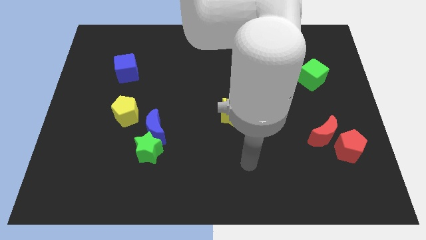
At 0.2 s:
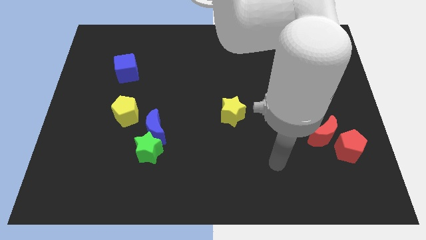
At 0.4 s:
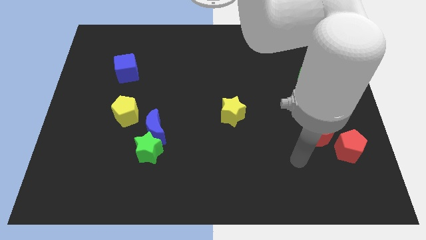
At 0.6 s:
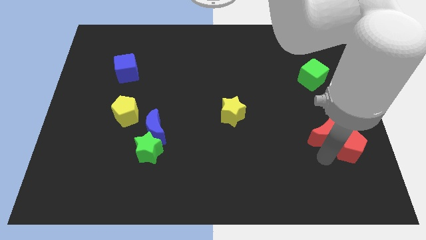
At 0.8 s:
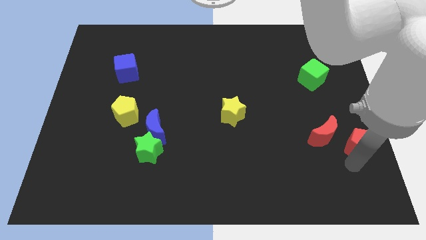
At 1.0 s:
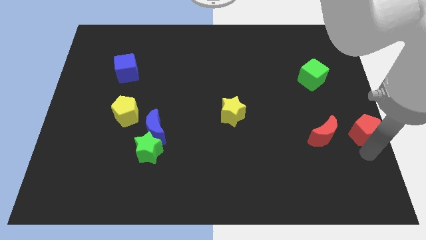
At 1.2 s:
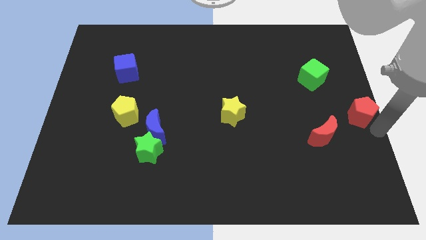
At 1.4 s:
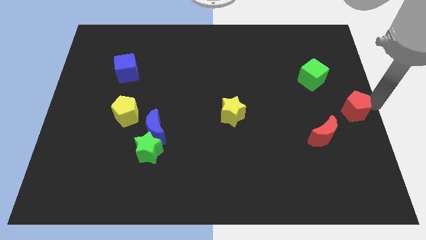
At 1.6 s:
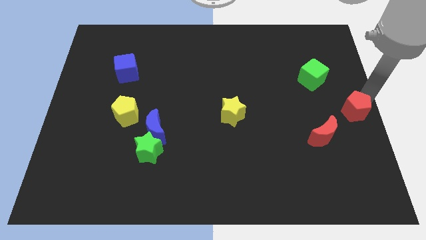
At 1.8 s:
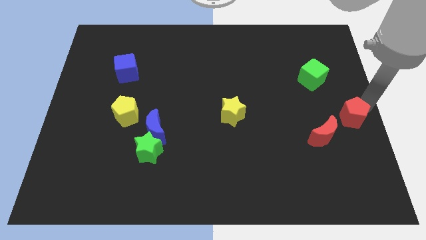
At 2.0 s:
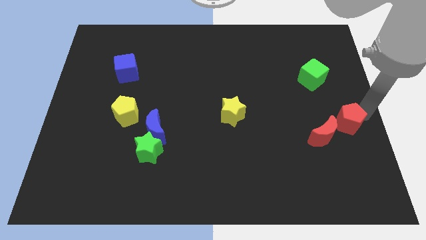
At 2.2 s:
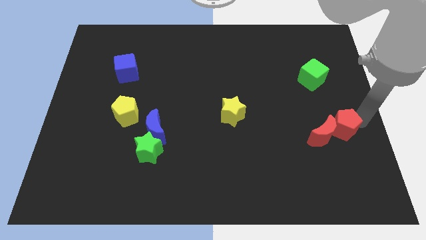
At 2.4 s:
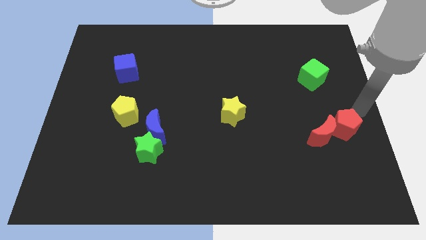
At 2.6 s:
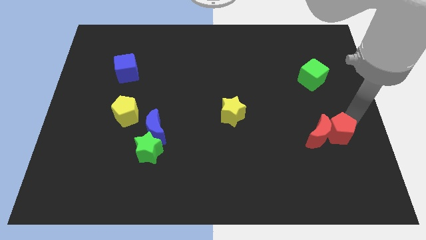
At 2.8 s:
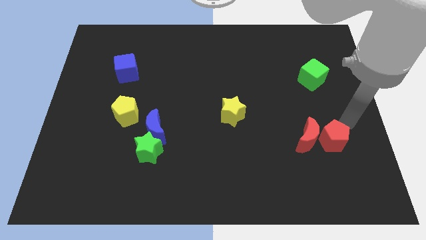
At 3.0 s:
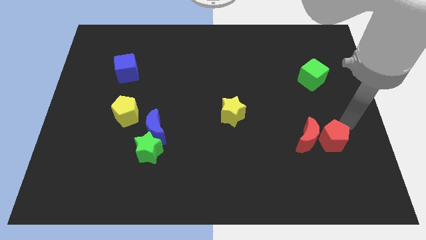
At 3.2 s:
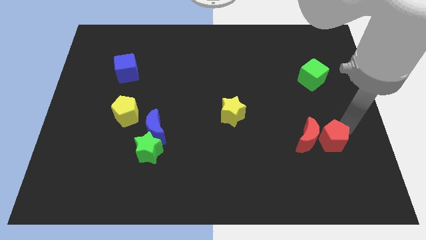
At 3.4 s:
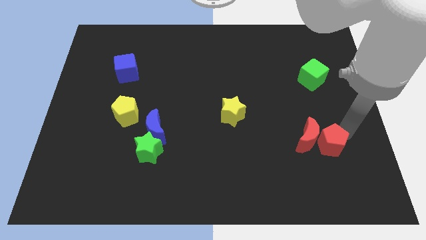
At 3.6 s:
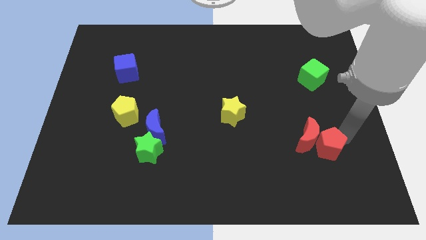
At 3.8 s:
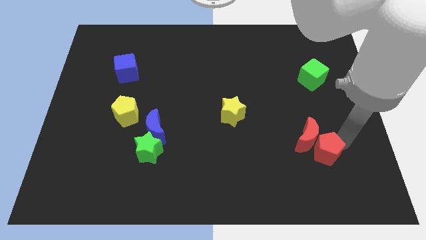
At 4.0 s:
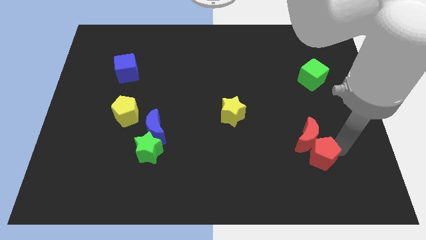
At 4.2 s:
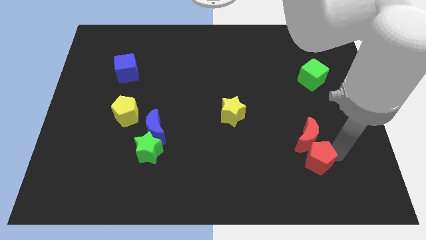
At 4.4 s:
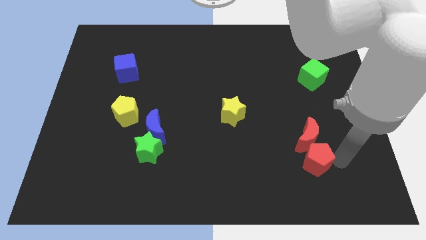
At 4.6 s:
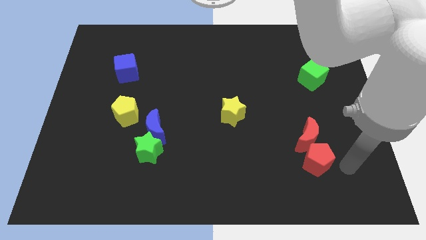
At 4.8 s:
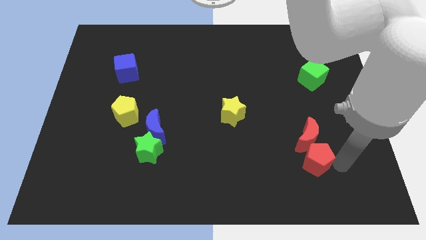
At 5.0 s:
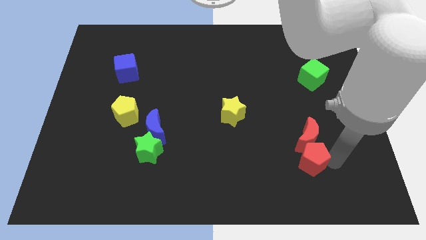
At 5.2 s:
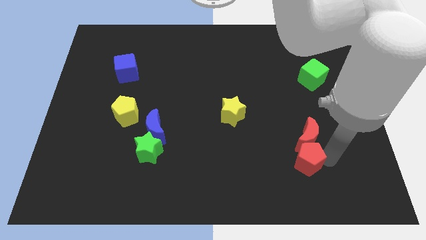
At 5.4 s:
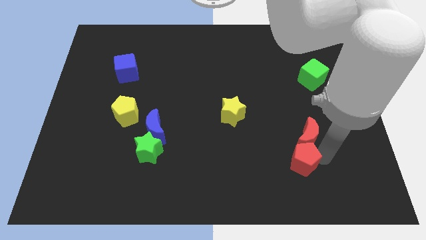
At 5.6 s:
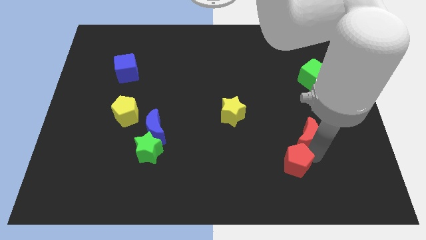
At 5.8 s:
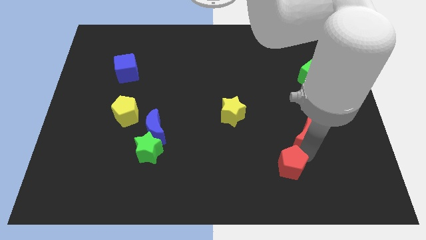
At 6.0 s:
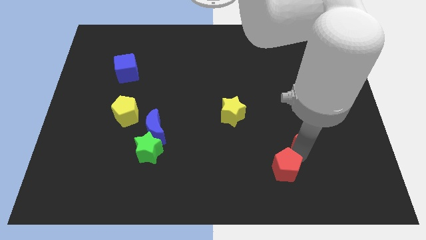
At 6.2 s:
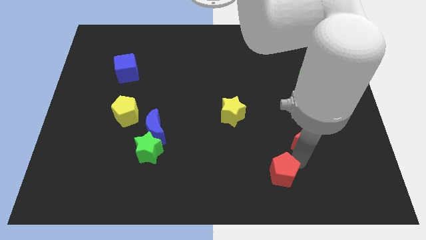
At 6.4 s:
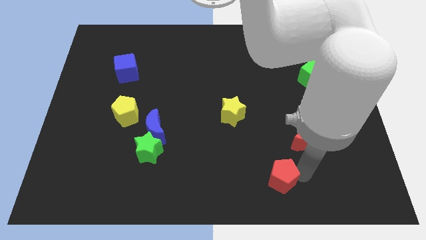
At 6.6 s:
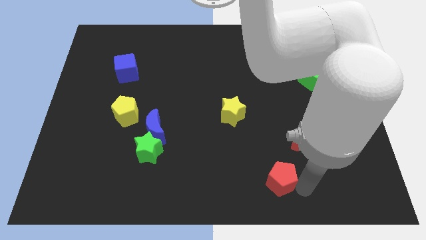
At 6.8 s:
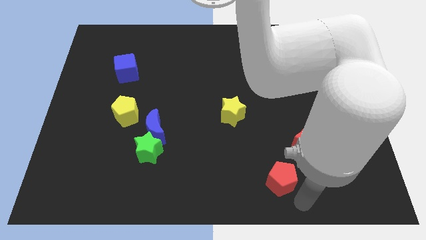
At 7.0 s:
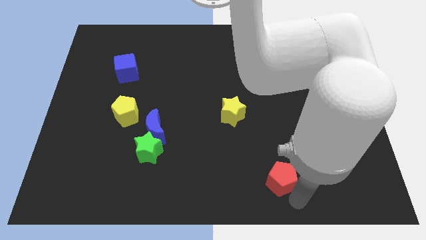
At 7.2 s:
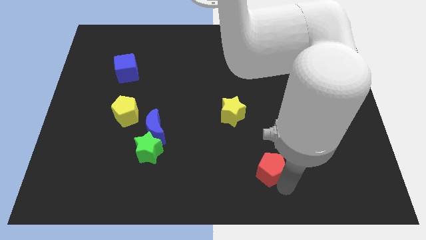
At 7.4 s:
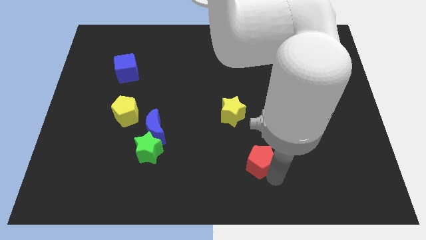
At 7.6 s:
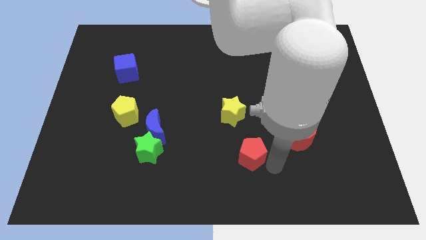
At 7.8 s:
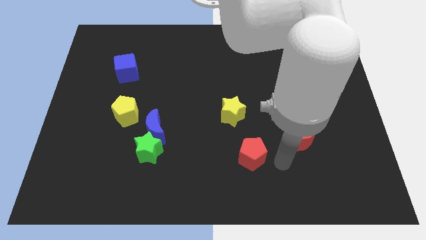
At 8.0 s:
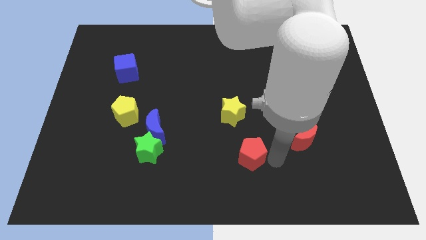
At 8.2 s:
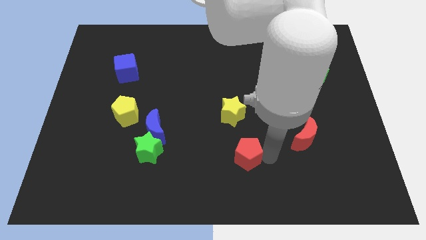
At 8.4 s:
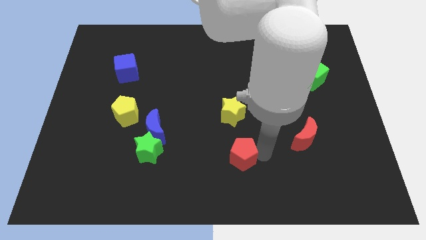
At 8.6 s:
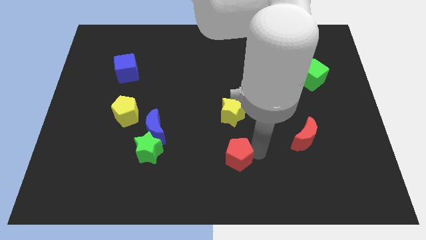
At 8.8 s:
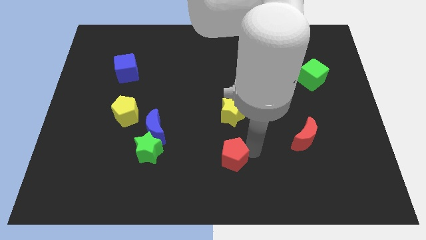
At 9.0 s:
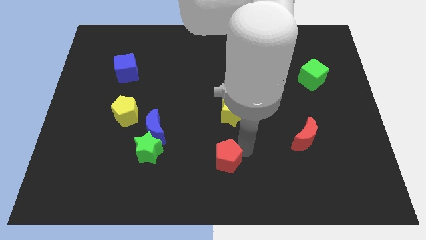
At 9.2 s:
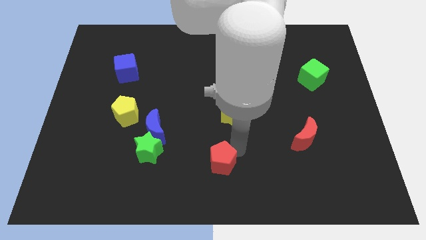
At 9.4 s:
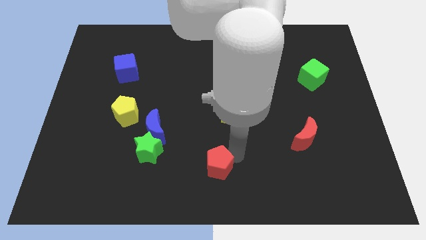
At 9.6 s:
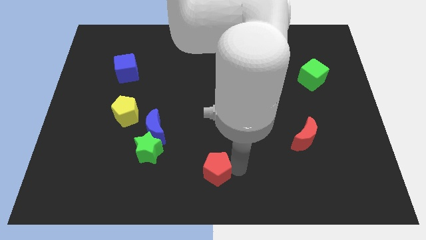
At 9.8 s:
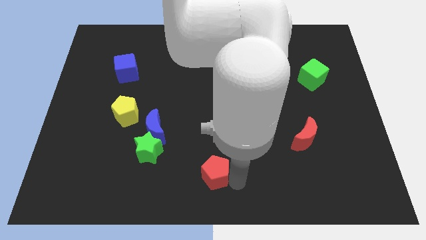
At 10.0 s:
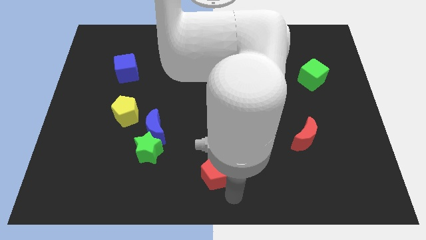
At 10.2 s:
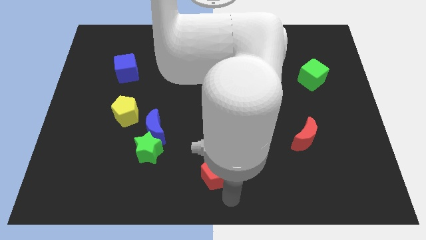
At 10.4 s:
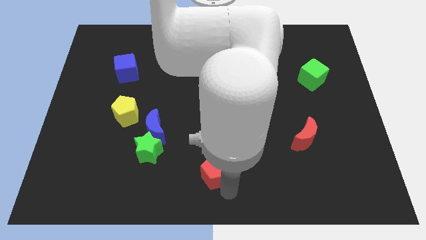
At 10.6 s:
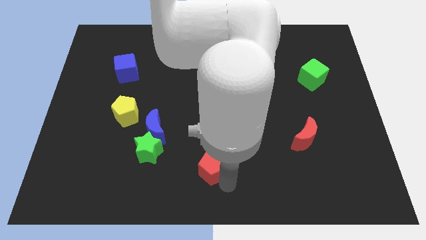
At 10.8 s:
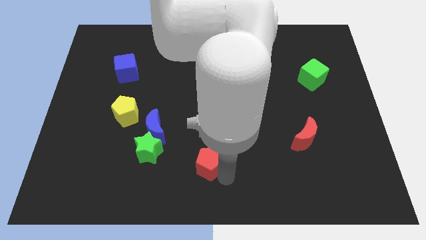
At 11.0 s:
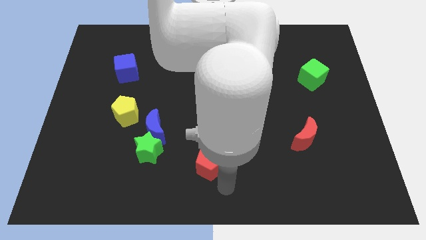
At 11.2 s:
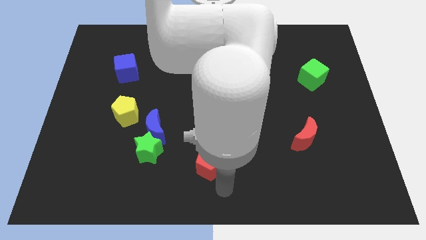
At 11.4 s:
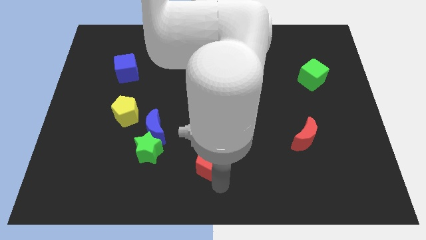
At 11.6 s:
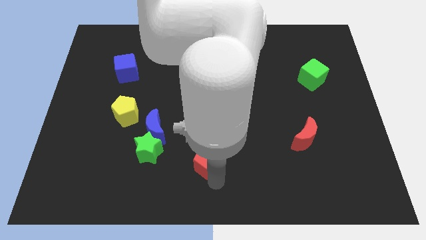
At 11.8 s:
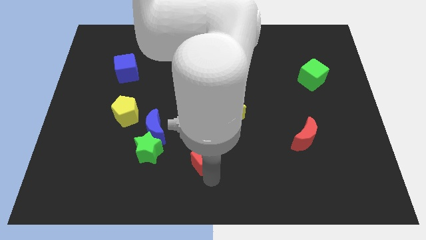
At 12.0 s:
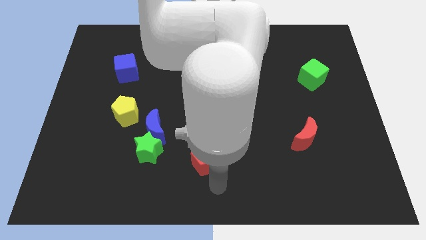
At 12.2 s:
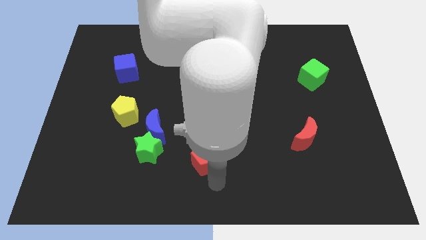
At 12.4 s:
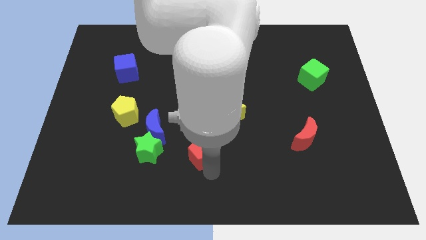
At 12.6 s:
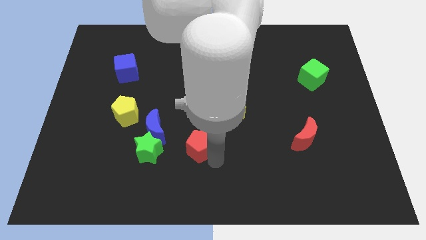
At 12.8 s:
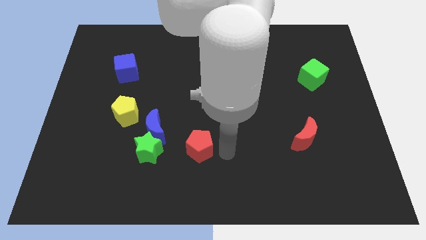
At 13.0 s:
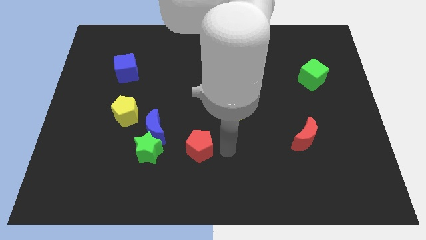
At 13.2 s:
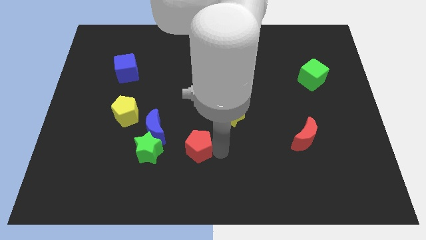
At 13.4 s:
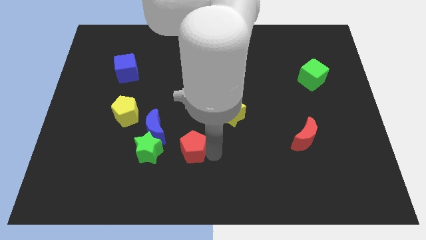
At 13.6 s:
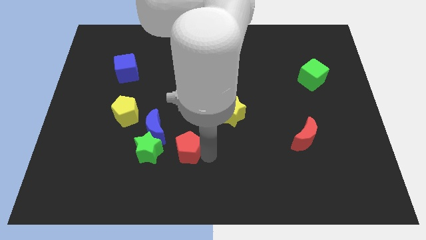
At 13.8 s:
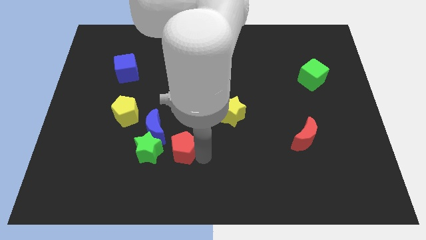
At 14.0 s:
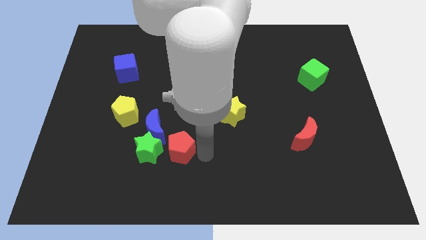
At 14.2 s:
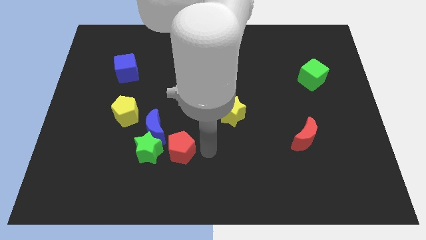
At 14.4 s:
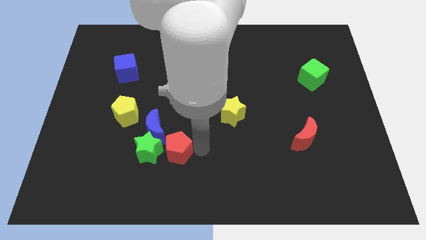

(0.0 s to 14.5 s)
push the red pentagon next to the green star
